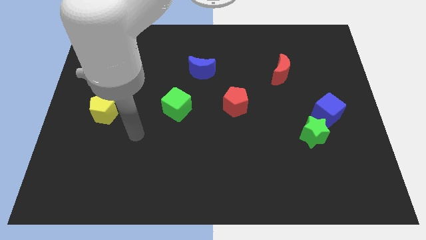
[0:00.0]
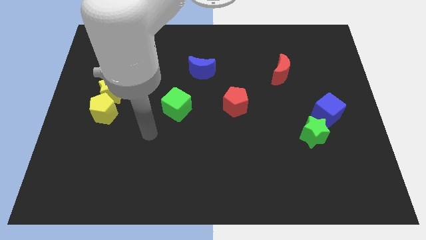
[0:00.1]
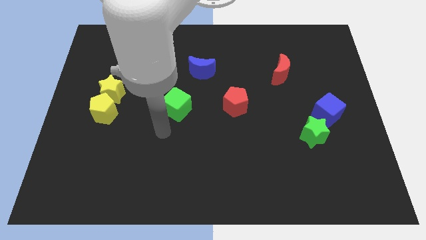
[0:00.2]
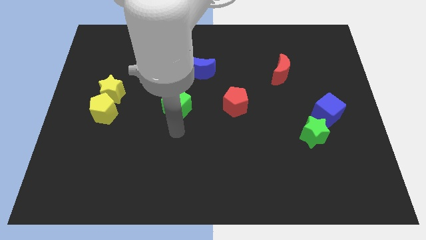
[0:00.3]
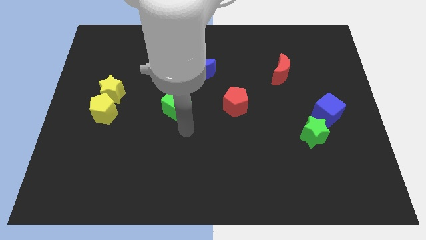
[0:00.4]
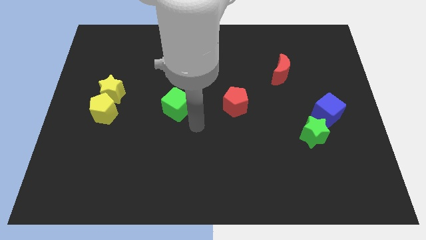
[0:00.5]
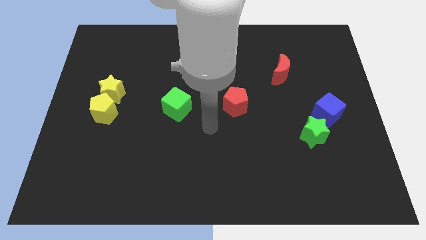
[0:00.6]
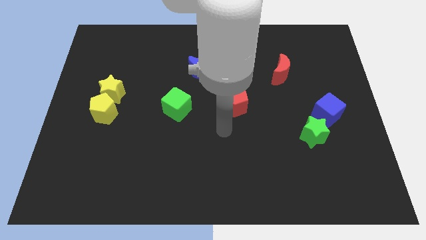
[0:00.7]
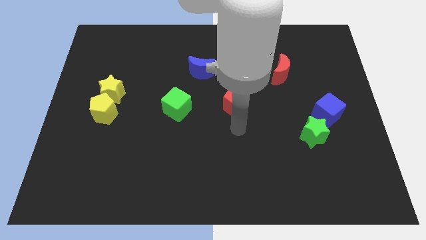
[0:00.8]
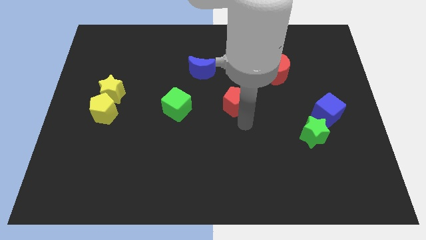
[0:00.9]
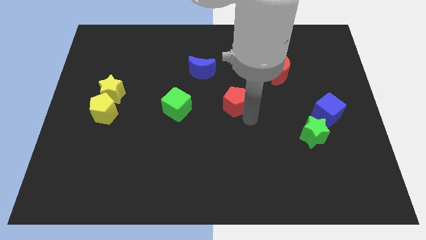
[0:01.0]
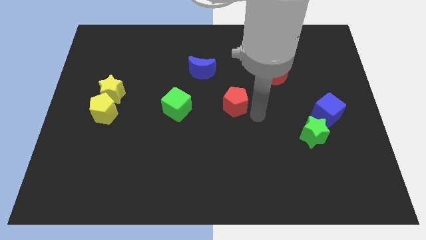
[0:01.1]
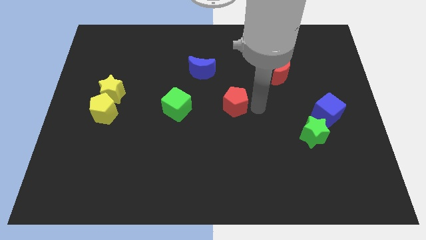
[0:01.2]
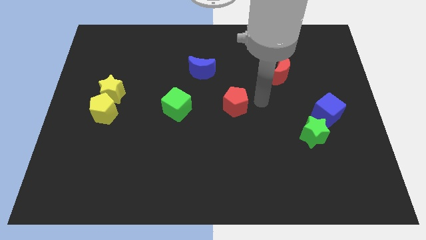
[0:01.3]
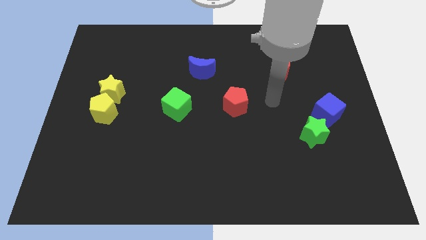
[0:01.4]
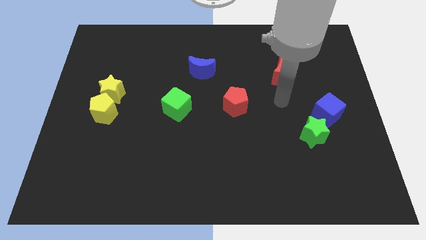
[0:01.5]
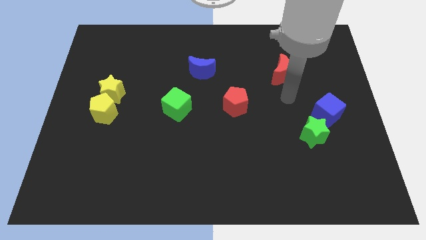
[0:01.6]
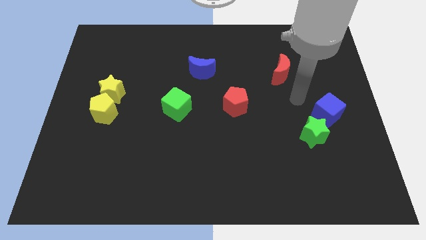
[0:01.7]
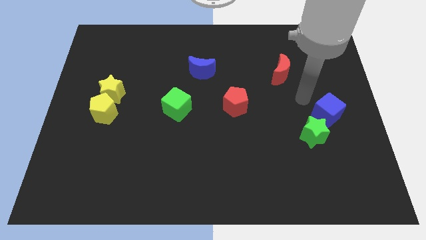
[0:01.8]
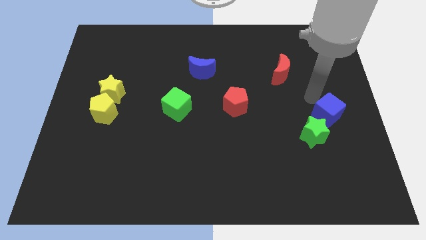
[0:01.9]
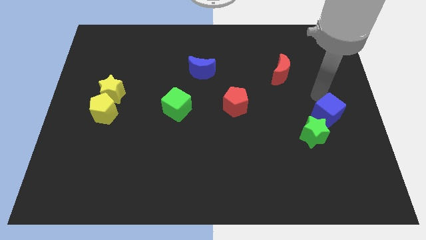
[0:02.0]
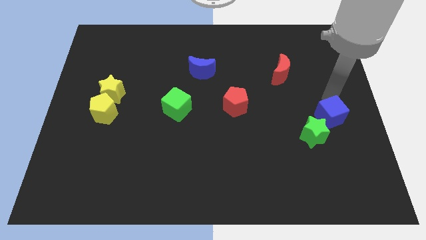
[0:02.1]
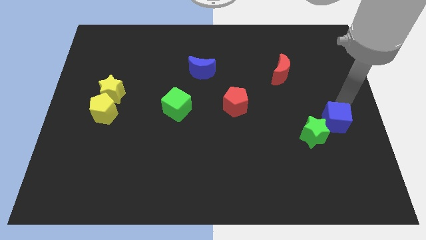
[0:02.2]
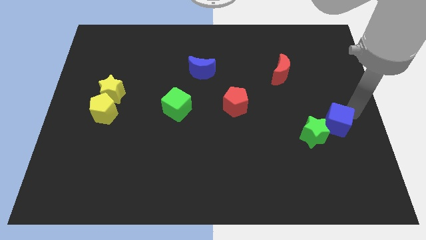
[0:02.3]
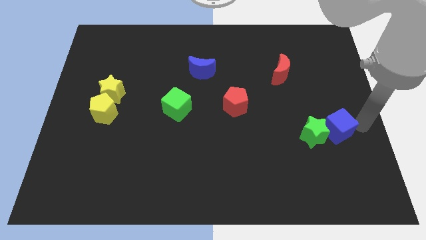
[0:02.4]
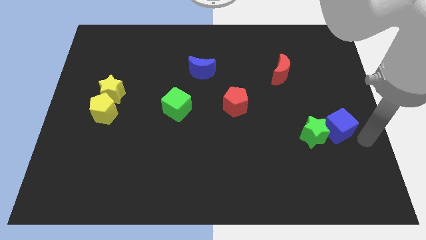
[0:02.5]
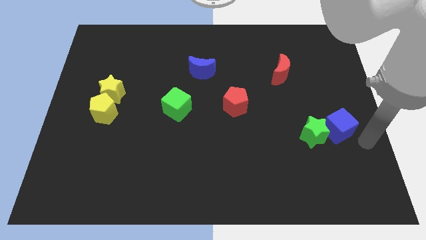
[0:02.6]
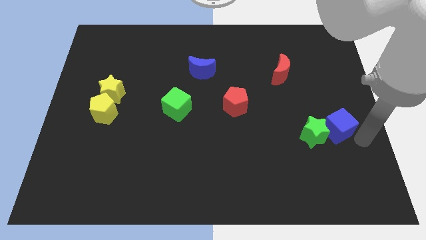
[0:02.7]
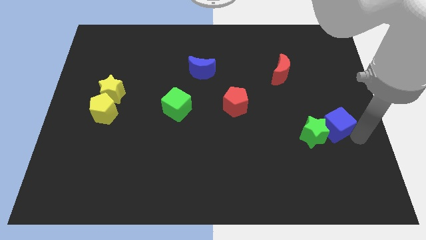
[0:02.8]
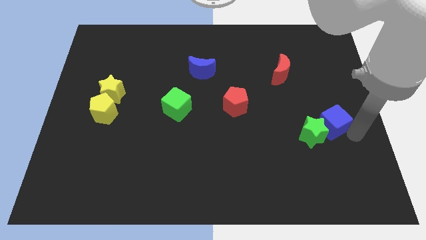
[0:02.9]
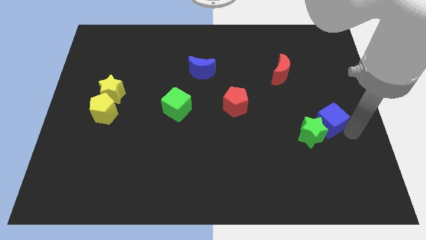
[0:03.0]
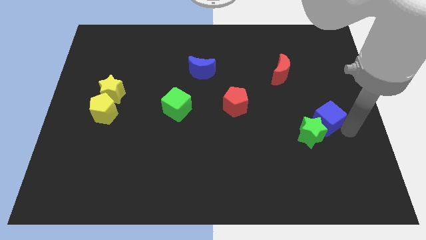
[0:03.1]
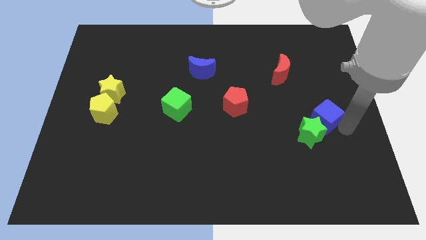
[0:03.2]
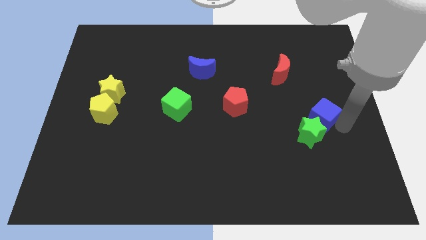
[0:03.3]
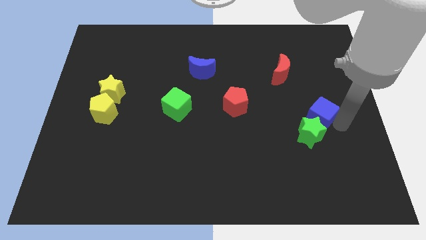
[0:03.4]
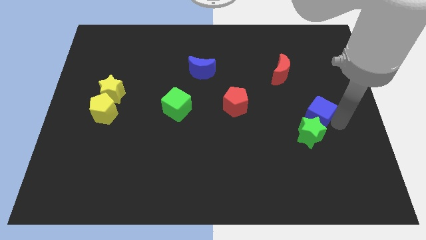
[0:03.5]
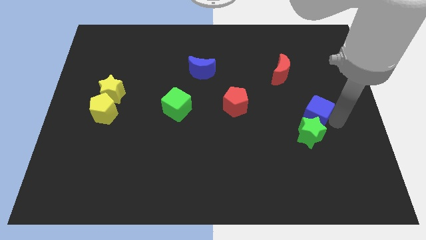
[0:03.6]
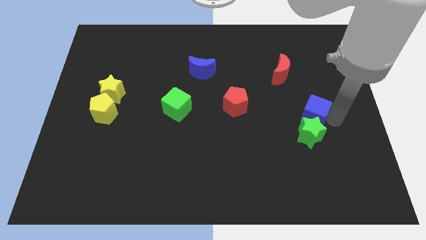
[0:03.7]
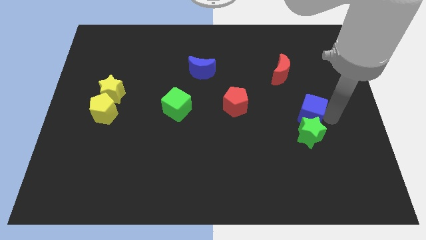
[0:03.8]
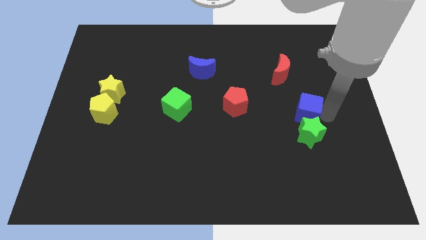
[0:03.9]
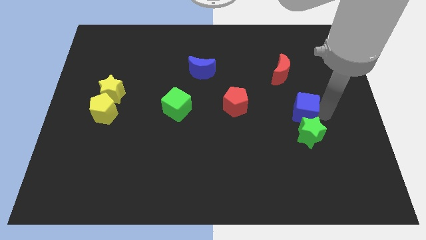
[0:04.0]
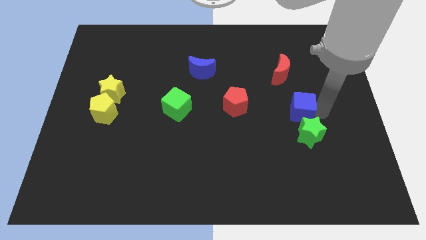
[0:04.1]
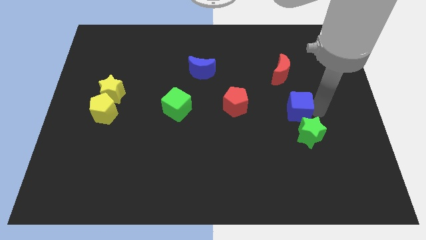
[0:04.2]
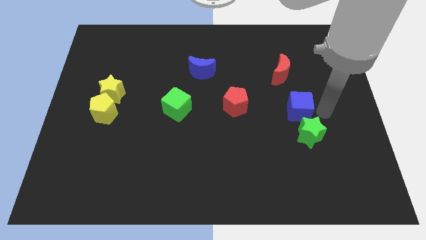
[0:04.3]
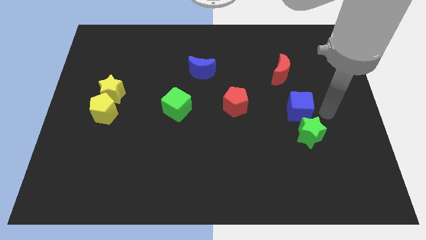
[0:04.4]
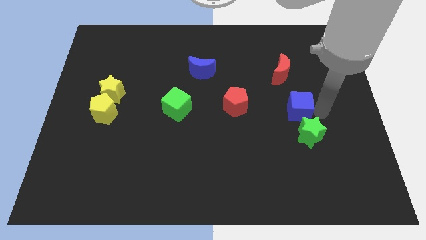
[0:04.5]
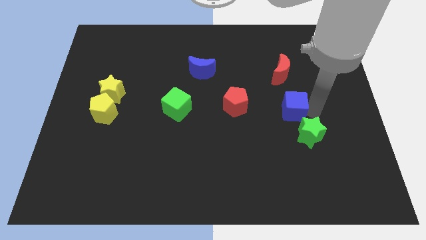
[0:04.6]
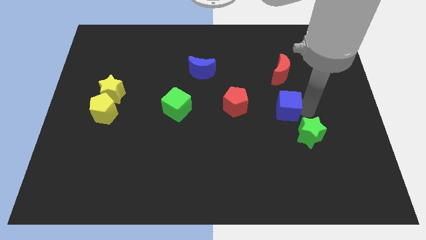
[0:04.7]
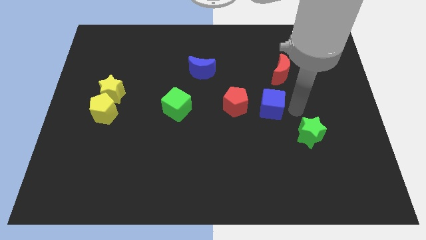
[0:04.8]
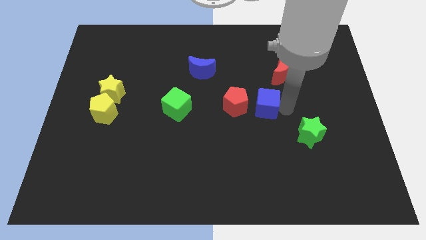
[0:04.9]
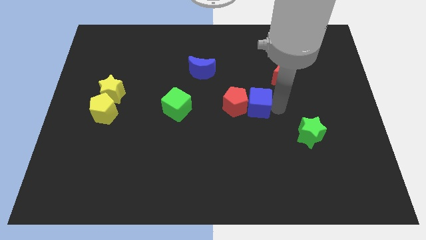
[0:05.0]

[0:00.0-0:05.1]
put the blue cube close to the red pentagon

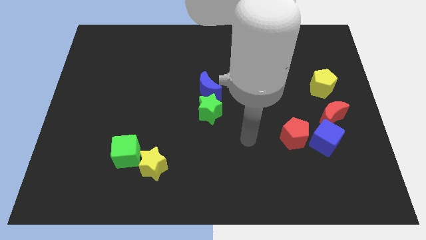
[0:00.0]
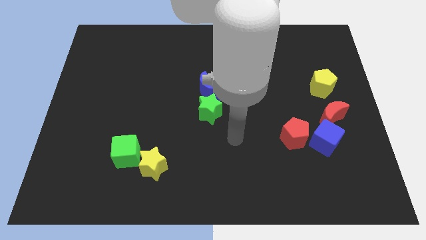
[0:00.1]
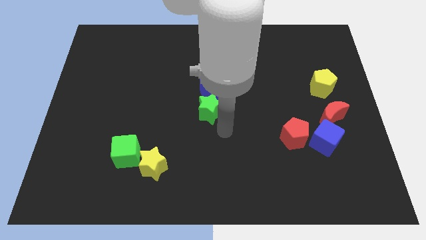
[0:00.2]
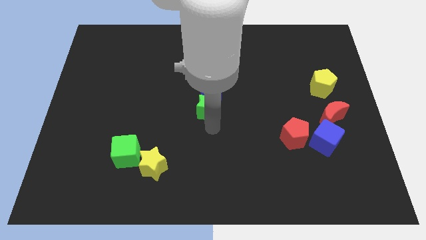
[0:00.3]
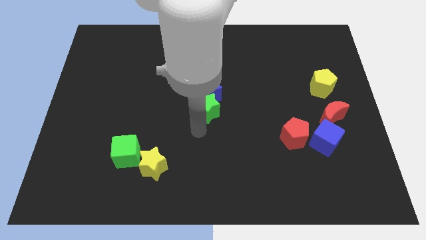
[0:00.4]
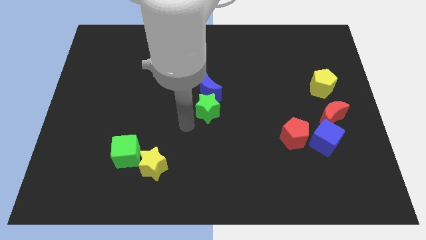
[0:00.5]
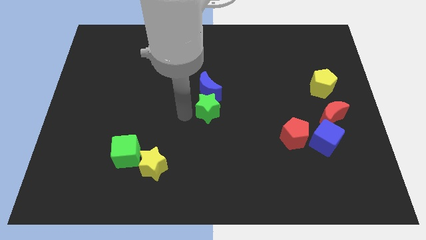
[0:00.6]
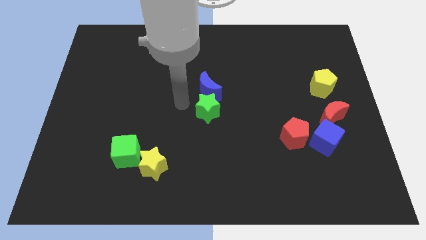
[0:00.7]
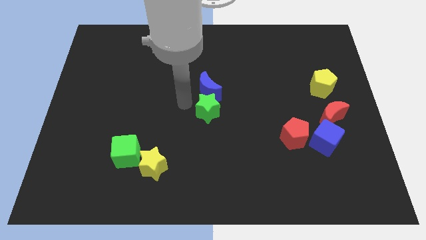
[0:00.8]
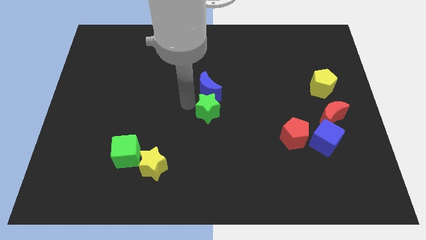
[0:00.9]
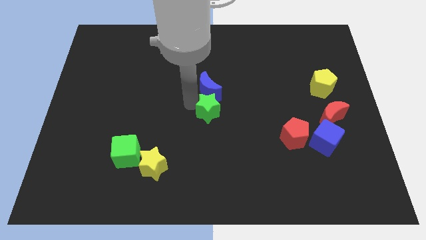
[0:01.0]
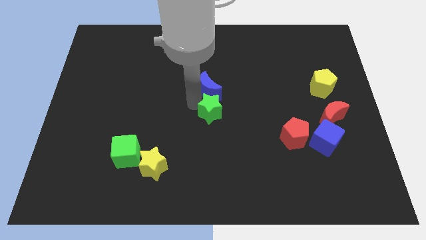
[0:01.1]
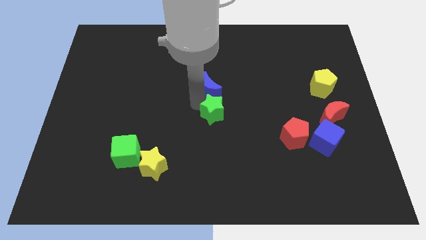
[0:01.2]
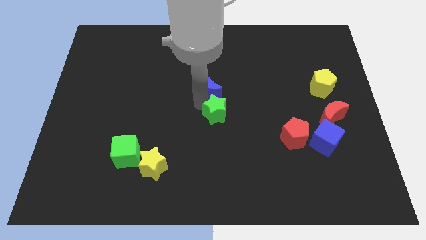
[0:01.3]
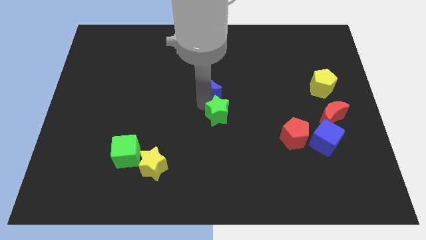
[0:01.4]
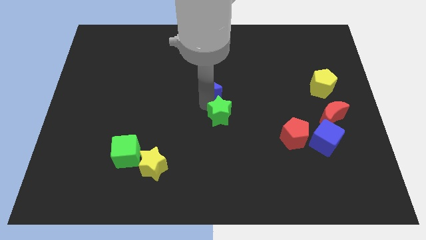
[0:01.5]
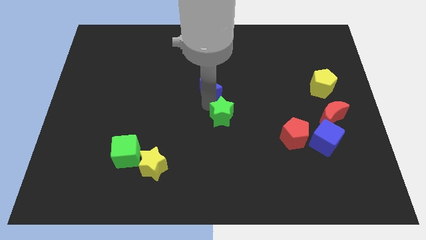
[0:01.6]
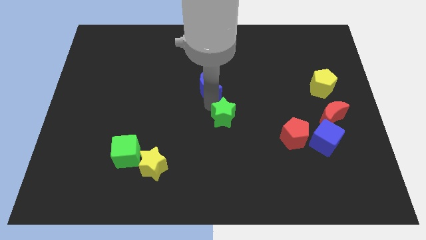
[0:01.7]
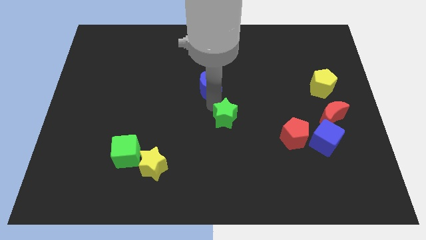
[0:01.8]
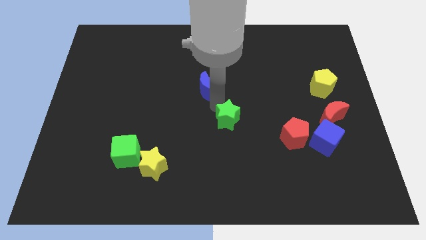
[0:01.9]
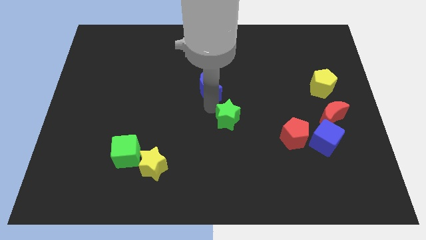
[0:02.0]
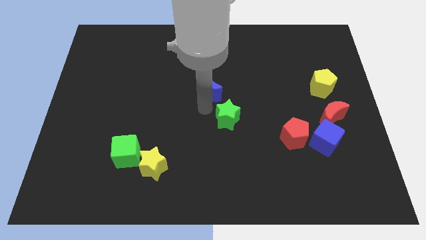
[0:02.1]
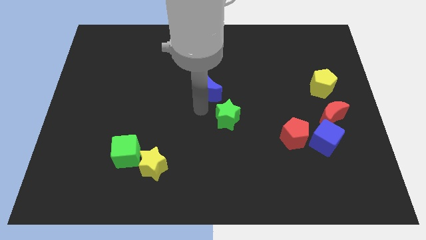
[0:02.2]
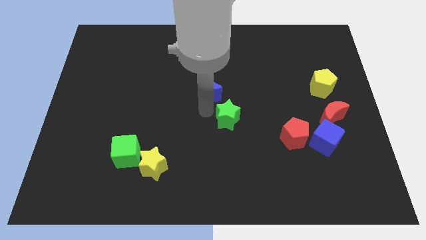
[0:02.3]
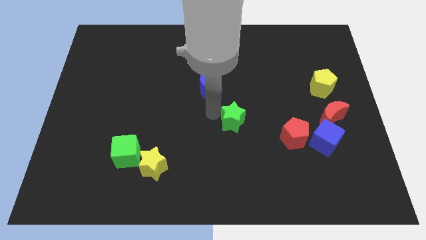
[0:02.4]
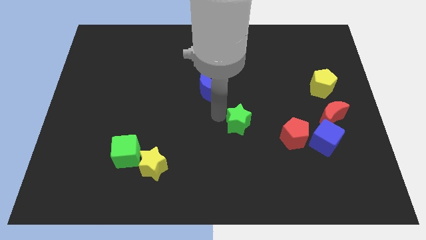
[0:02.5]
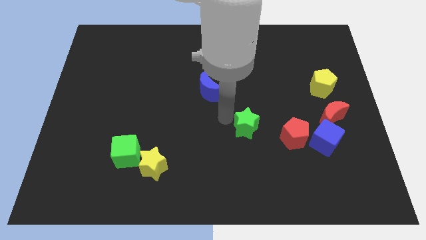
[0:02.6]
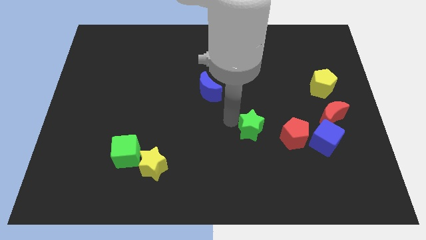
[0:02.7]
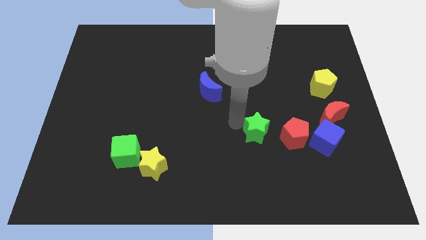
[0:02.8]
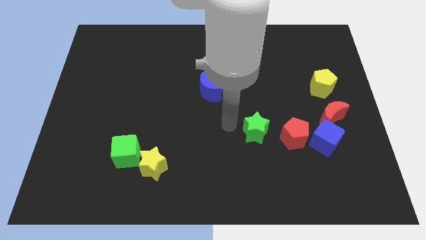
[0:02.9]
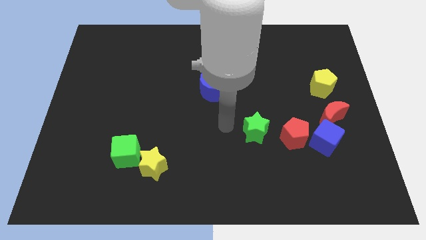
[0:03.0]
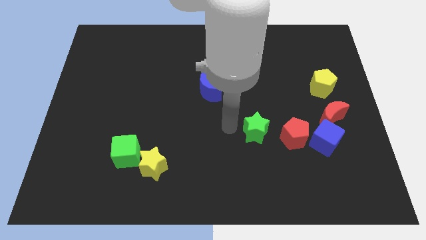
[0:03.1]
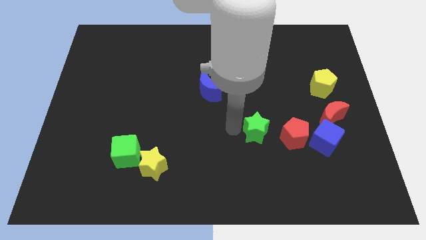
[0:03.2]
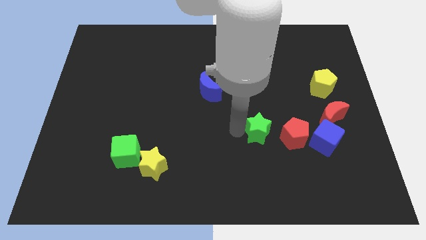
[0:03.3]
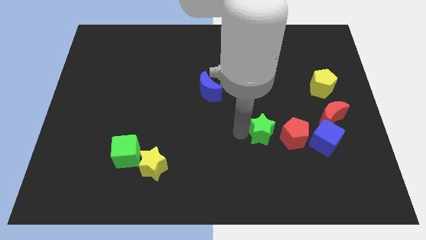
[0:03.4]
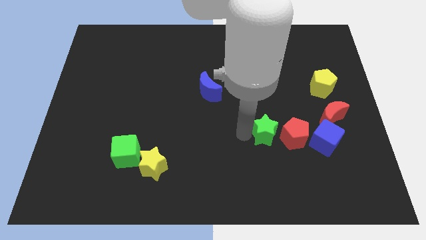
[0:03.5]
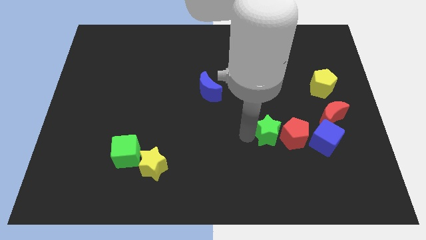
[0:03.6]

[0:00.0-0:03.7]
push the green star towards the red pentagon
